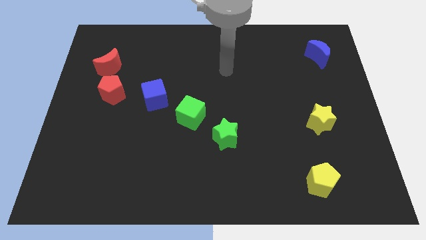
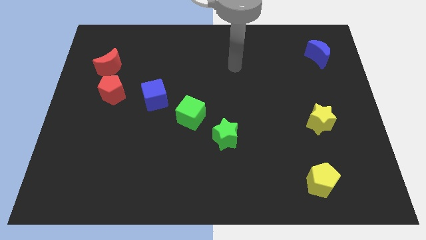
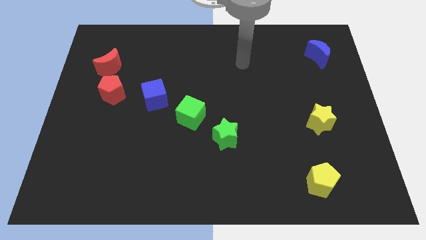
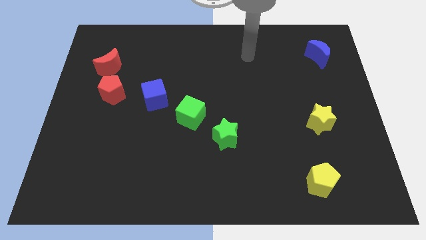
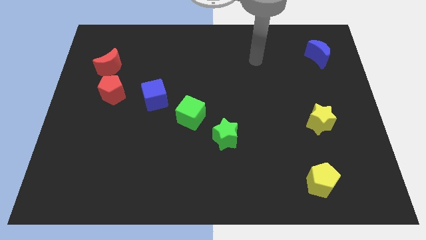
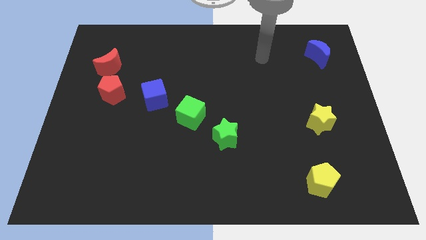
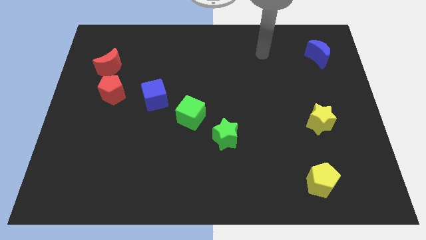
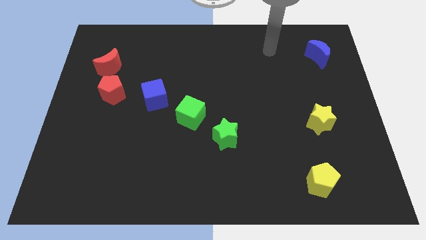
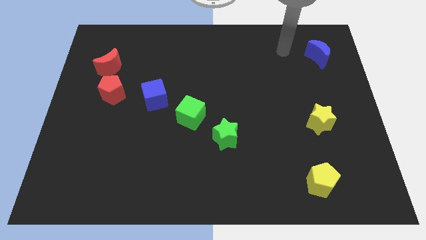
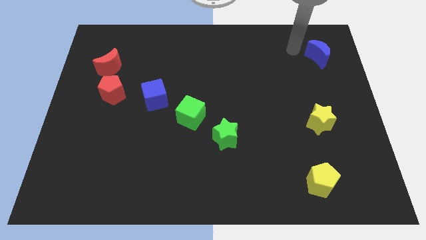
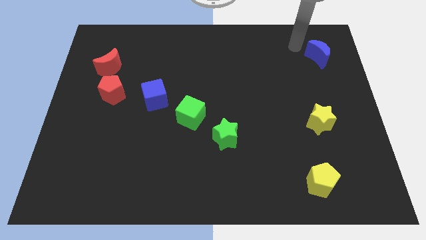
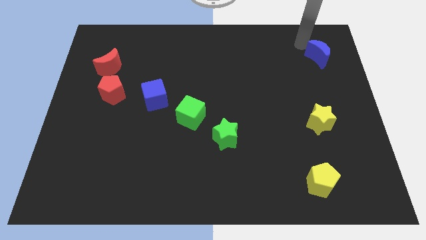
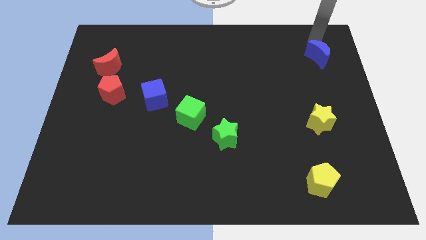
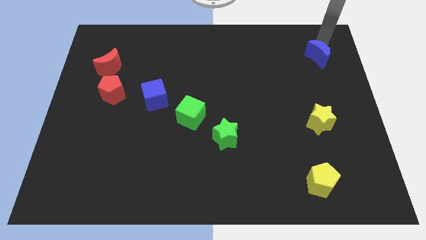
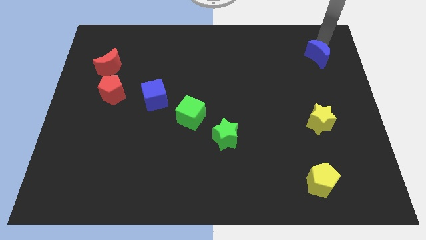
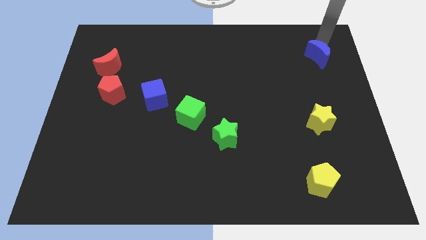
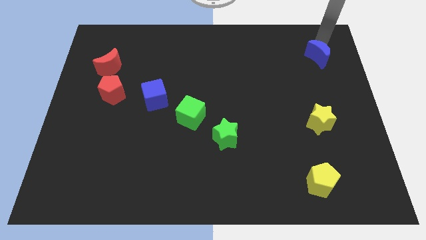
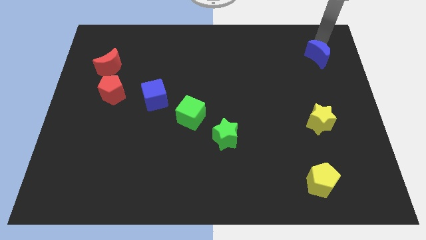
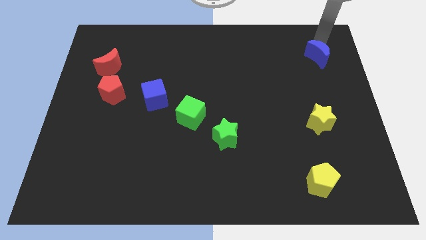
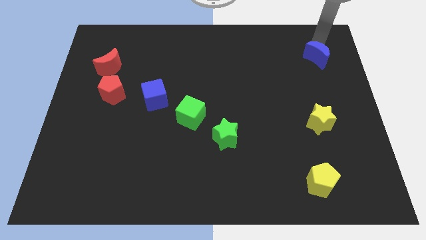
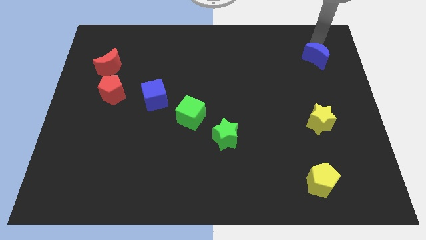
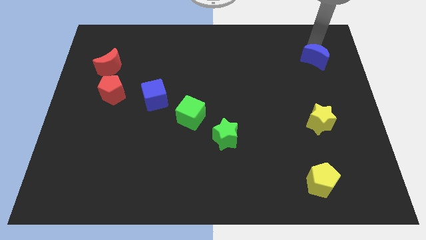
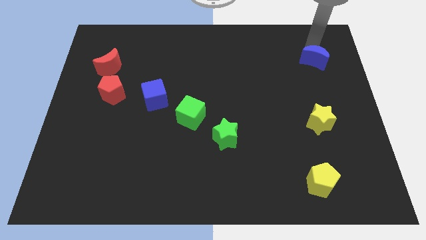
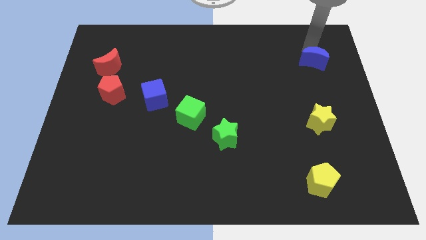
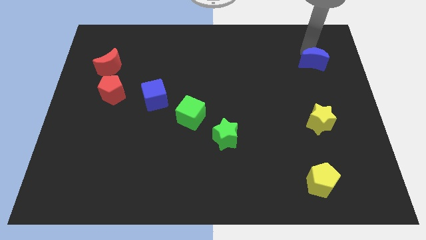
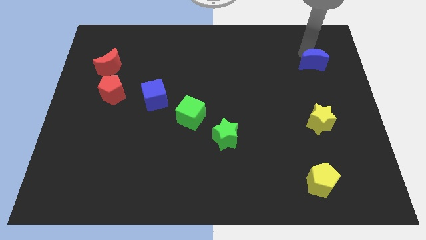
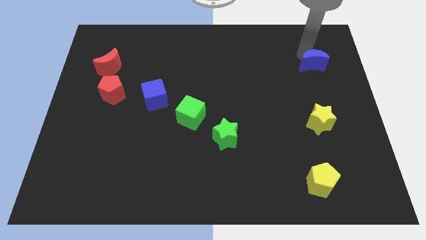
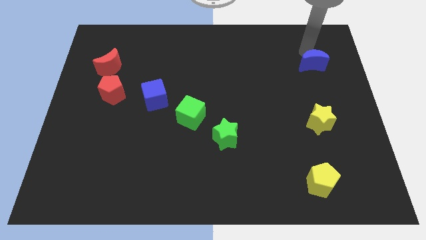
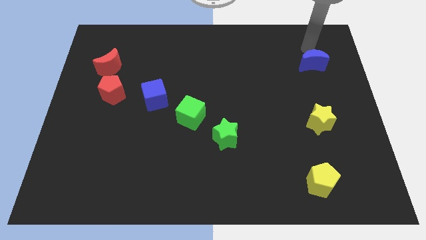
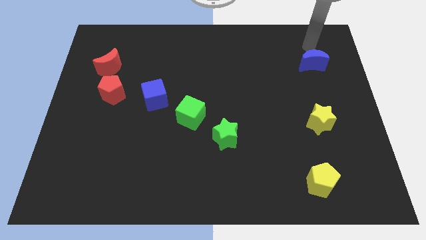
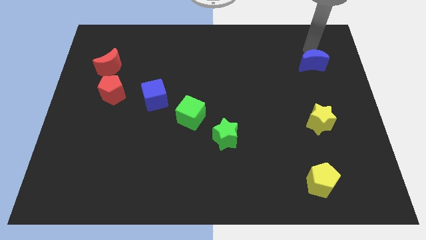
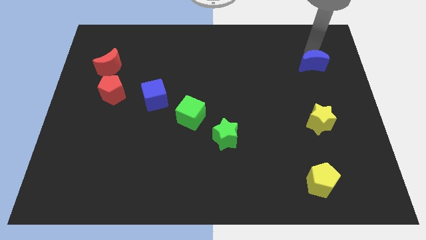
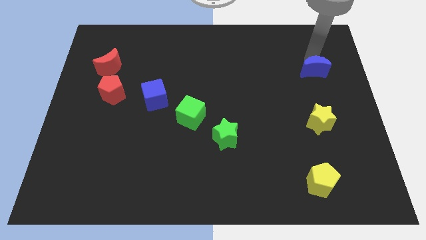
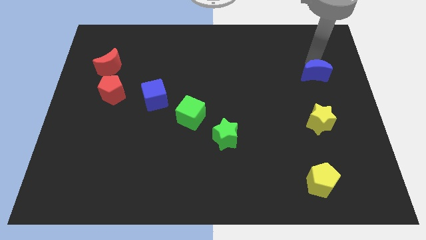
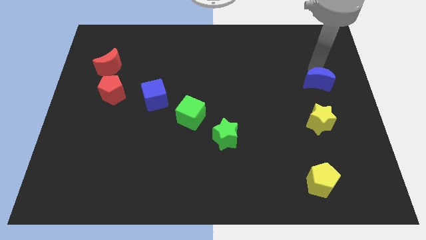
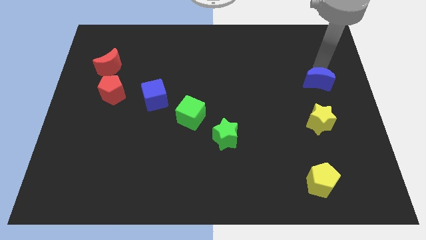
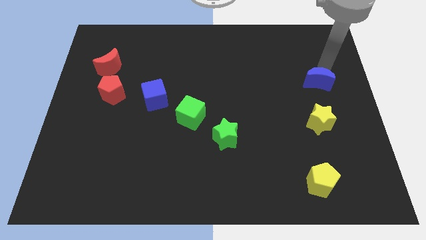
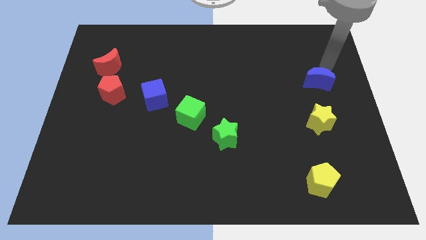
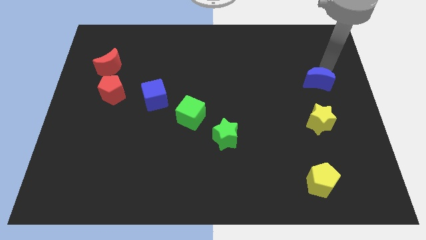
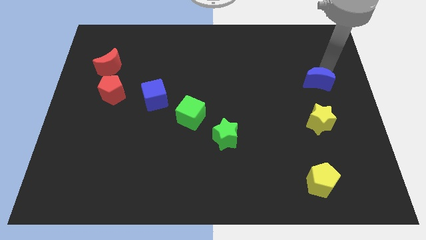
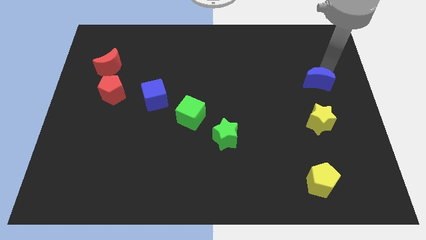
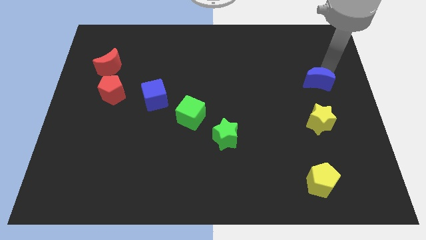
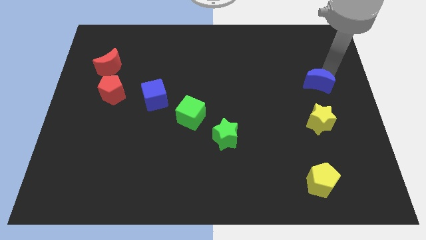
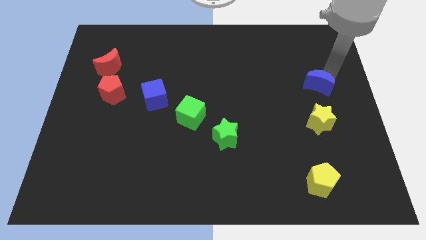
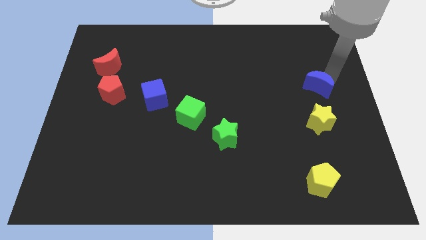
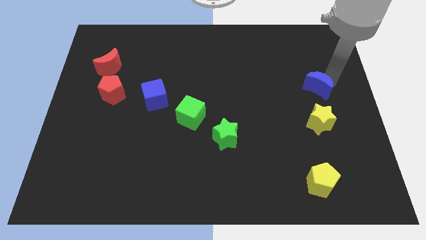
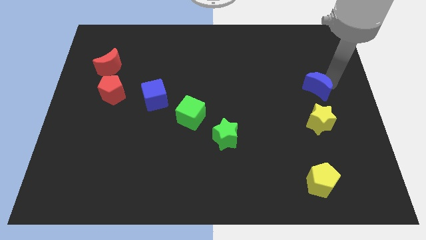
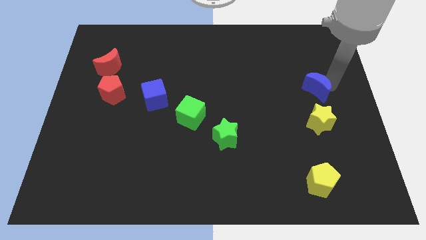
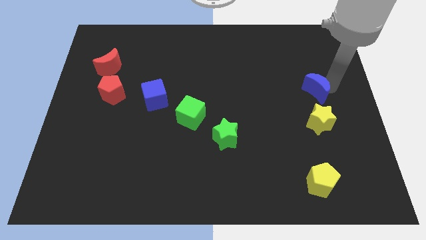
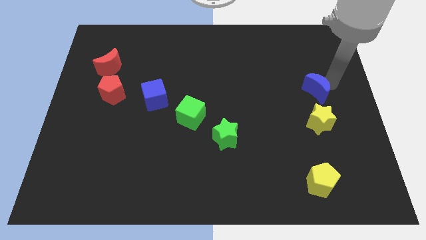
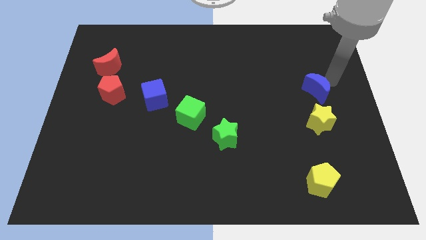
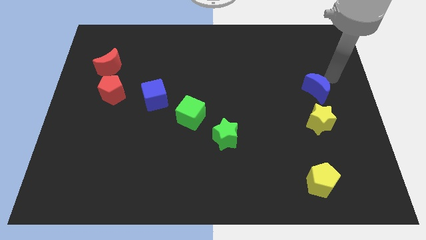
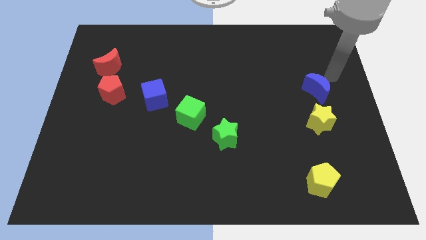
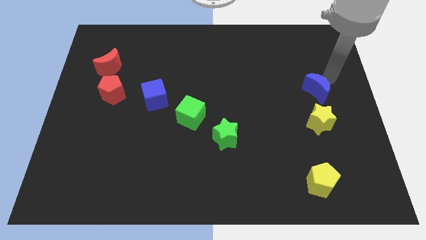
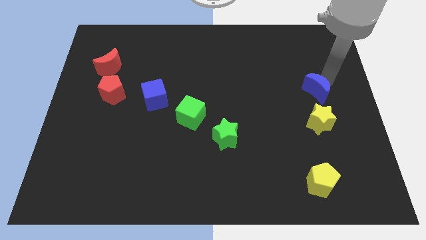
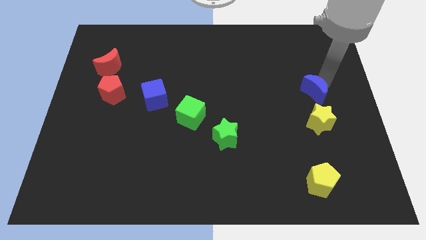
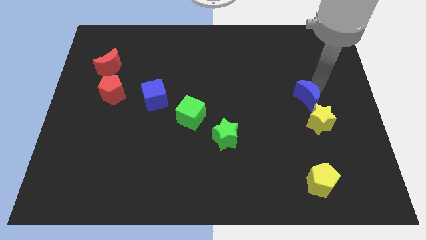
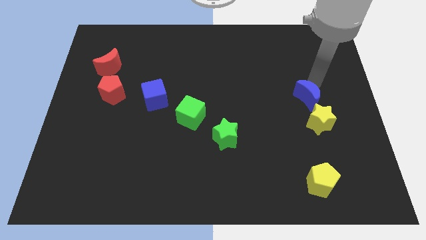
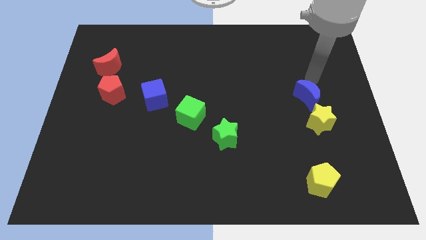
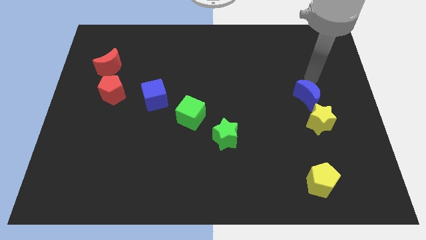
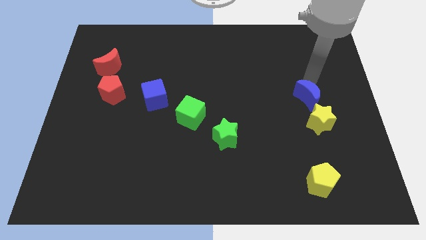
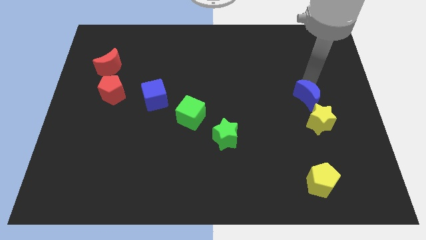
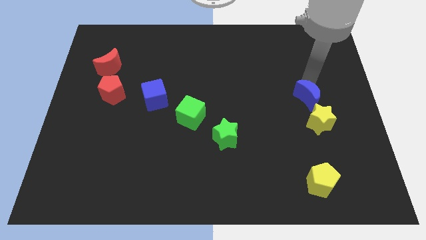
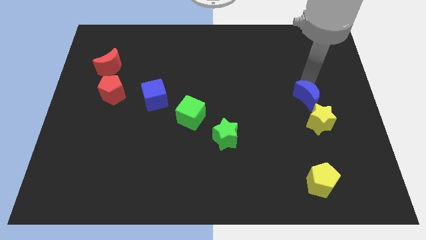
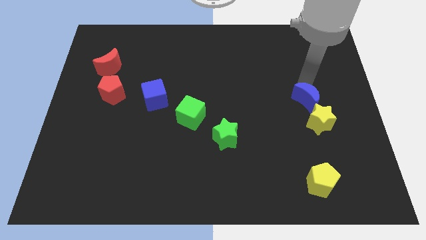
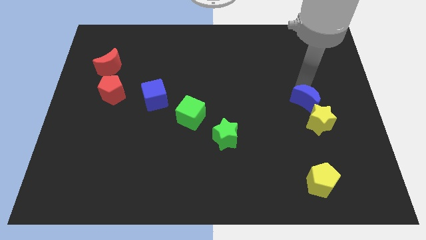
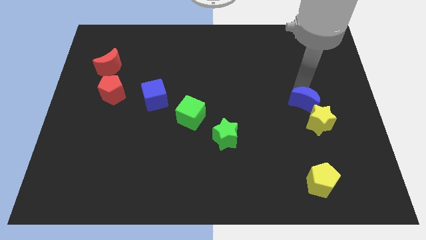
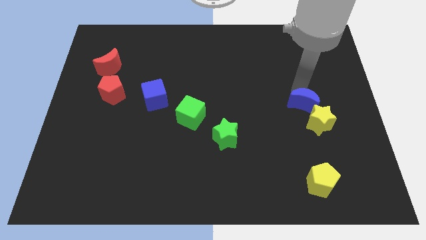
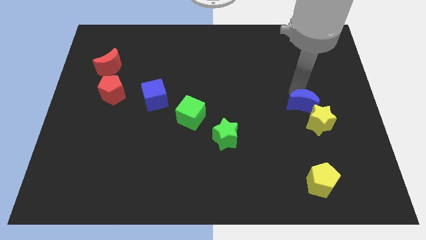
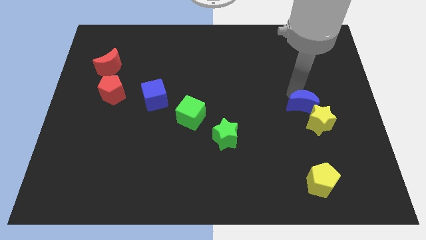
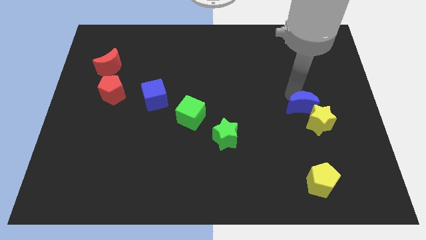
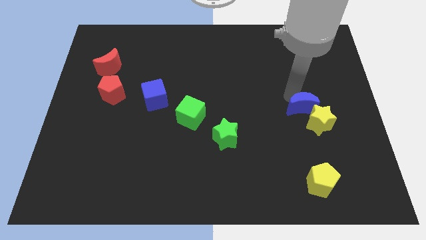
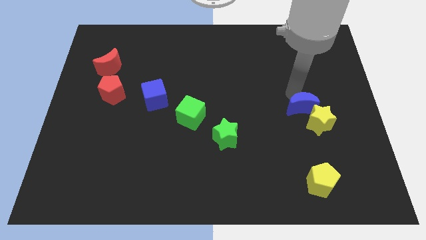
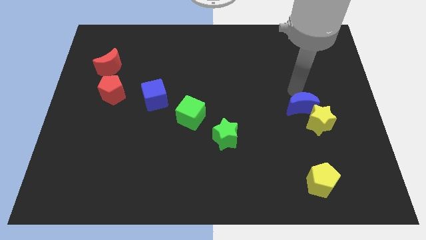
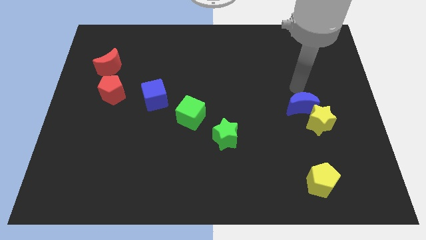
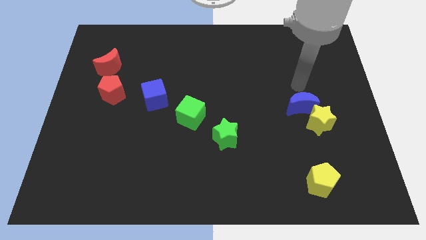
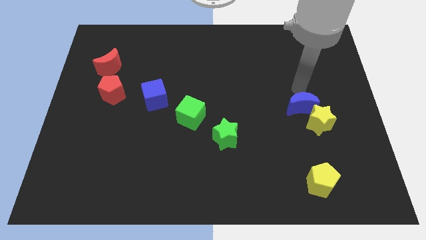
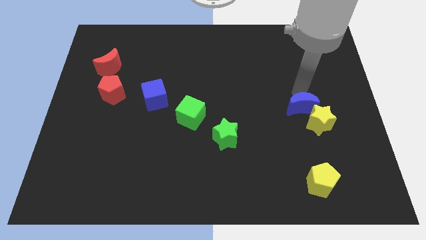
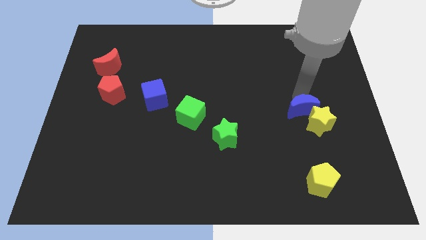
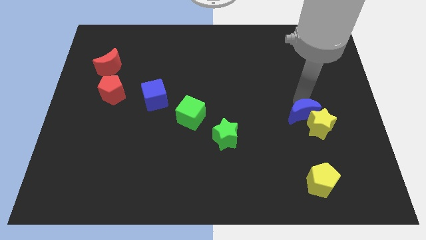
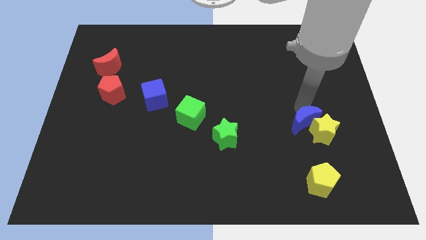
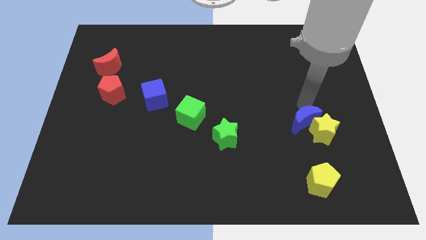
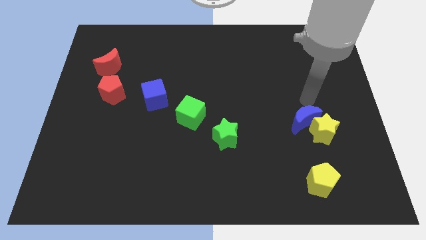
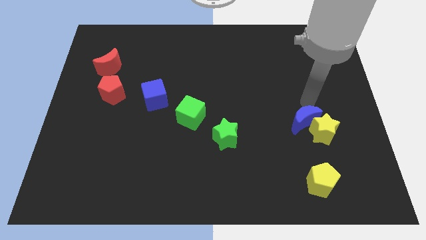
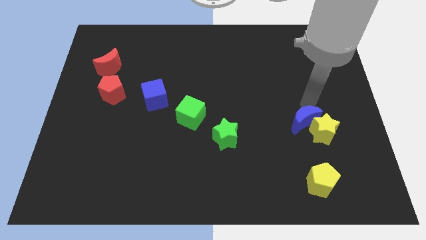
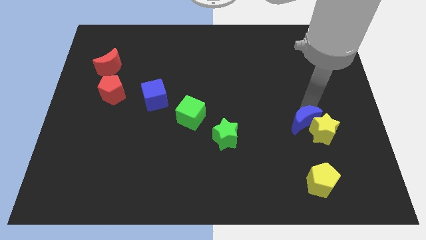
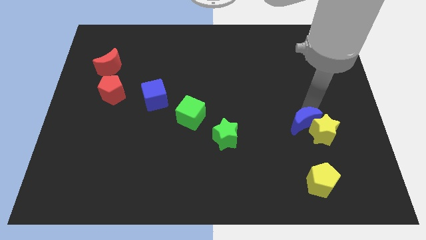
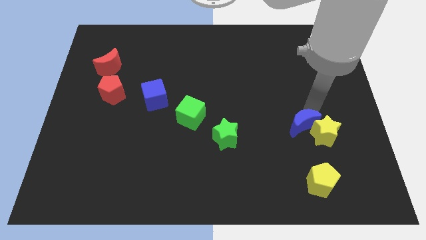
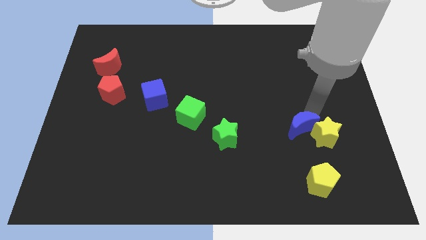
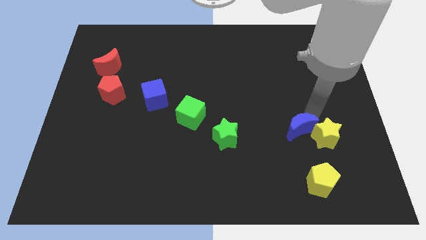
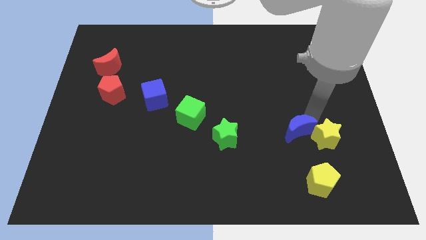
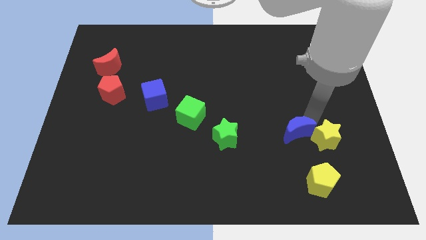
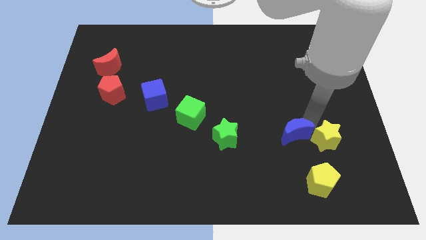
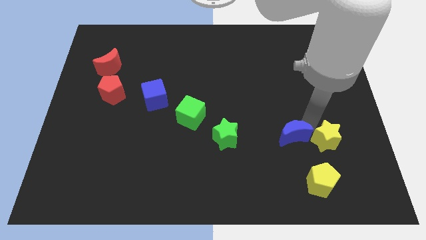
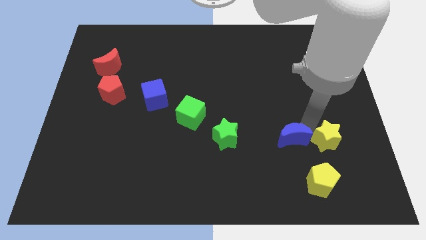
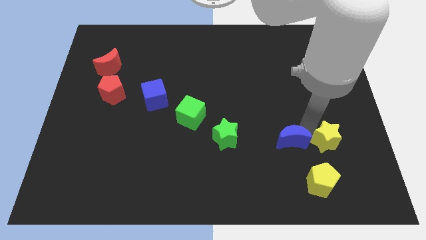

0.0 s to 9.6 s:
slide the blue moon to the top left side of the yellow pentagon
